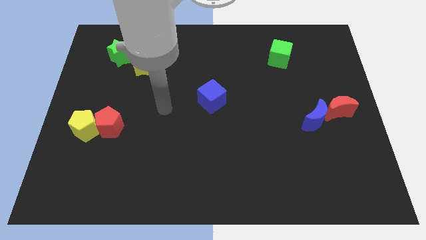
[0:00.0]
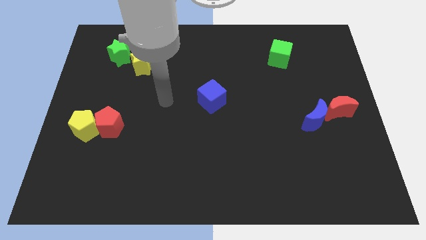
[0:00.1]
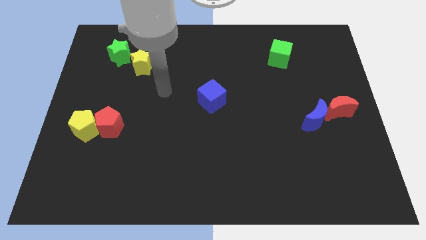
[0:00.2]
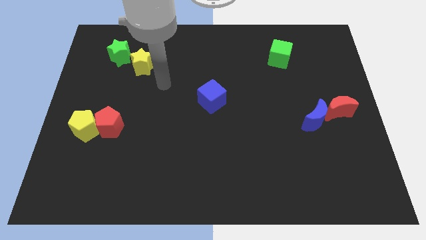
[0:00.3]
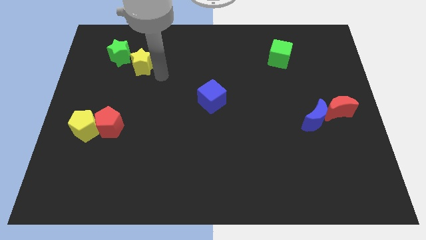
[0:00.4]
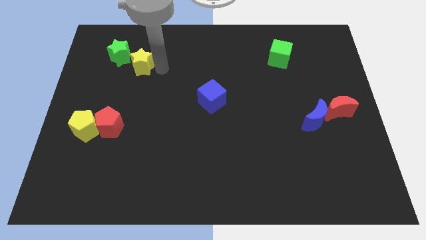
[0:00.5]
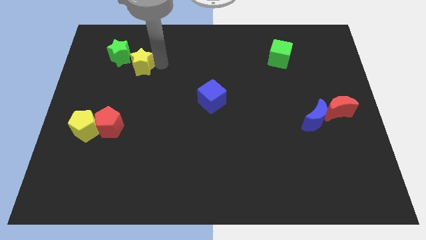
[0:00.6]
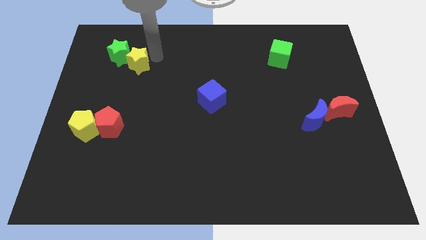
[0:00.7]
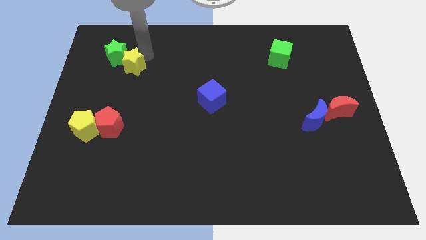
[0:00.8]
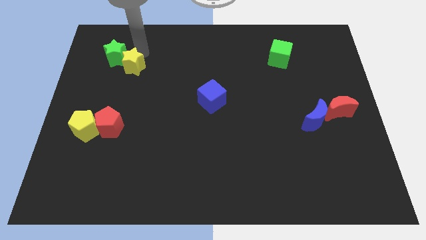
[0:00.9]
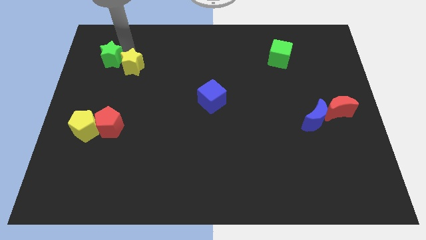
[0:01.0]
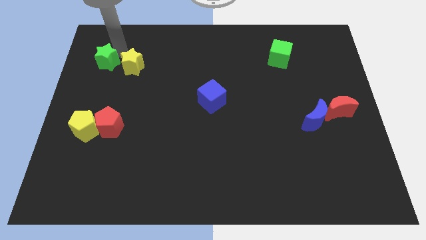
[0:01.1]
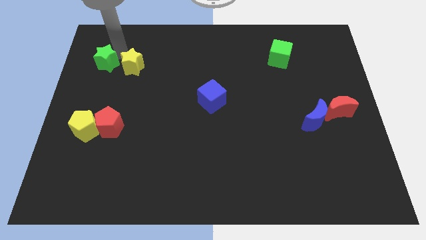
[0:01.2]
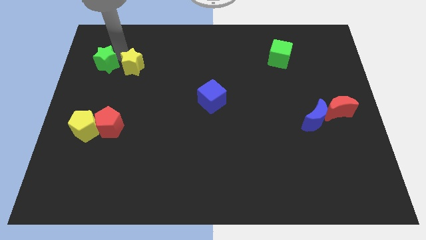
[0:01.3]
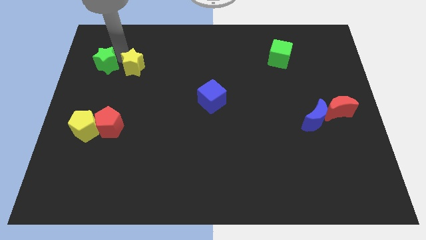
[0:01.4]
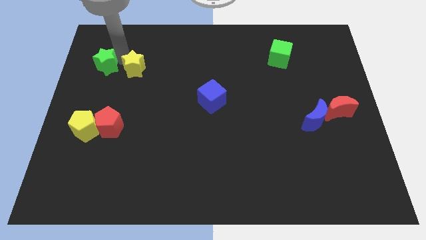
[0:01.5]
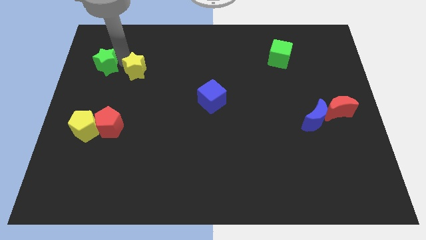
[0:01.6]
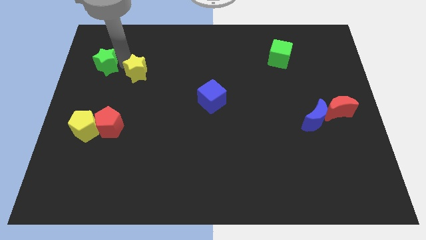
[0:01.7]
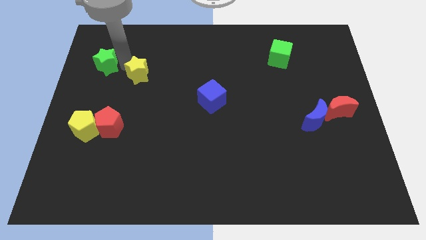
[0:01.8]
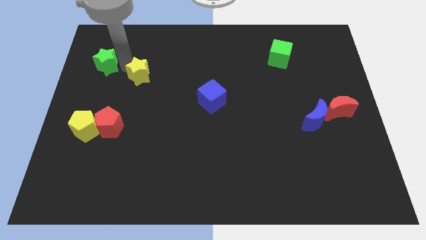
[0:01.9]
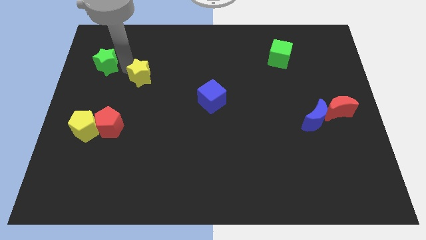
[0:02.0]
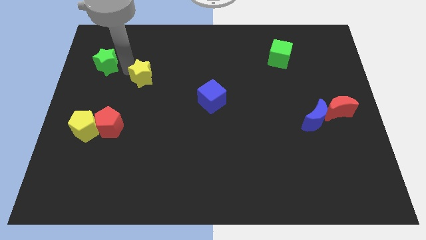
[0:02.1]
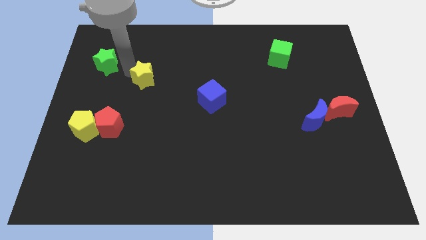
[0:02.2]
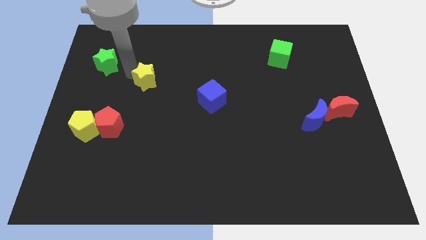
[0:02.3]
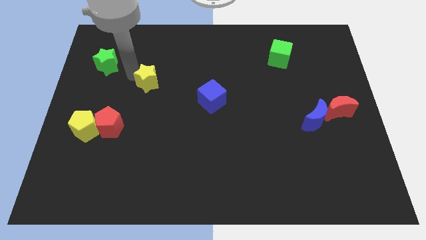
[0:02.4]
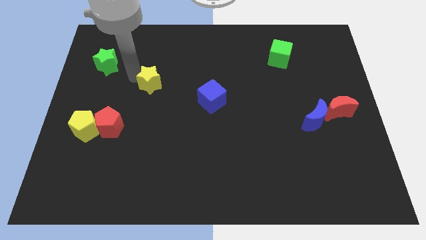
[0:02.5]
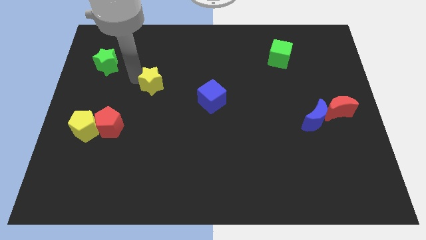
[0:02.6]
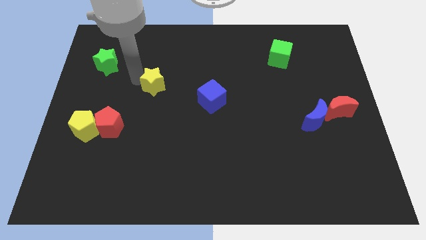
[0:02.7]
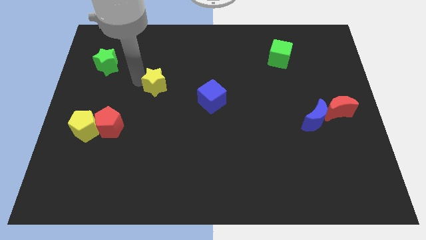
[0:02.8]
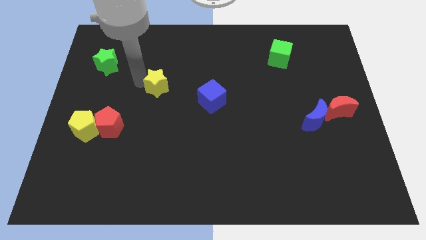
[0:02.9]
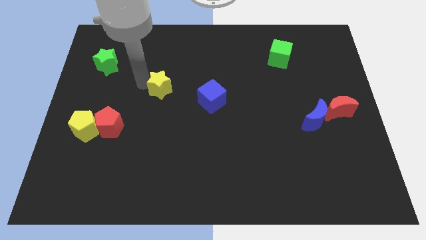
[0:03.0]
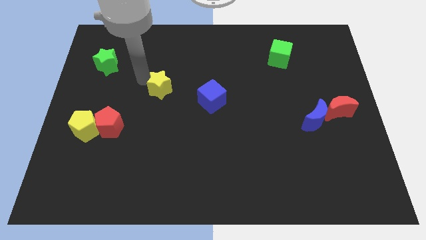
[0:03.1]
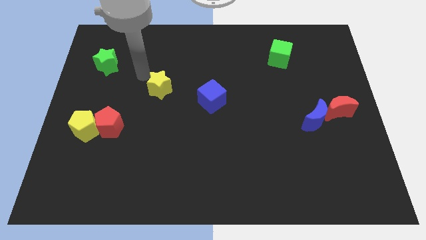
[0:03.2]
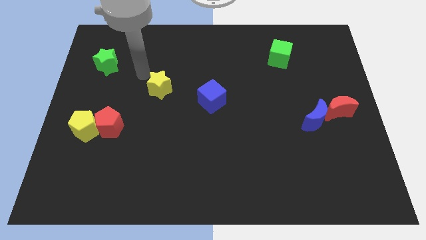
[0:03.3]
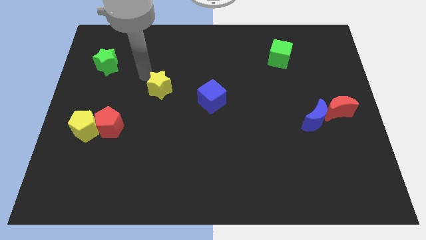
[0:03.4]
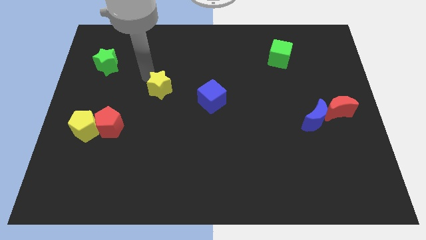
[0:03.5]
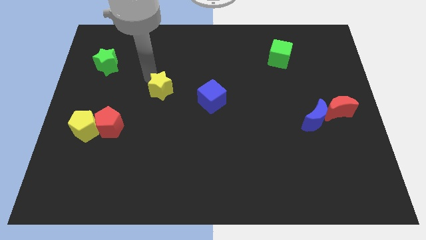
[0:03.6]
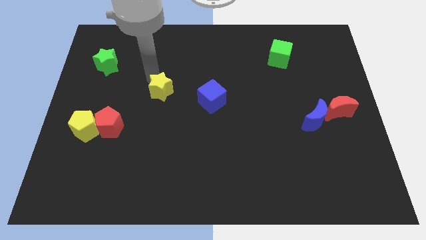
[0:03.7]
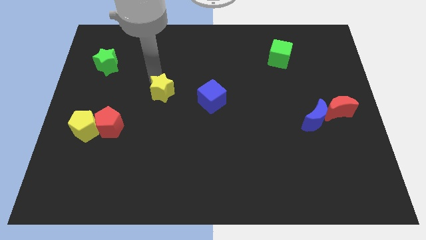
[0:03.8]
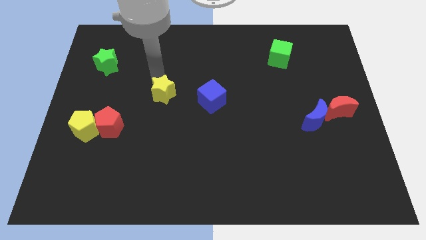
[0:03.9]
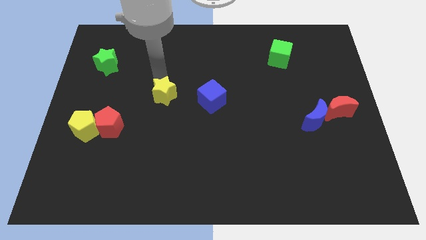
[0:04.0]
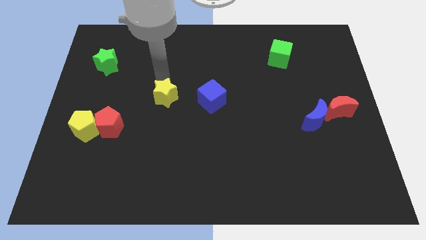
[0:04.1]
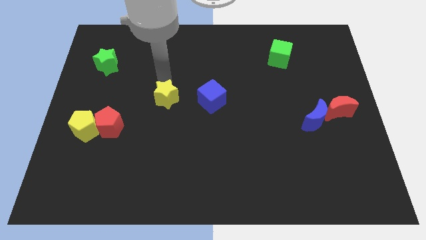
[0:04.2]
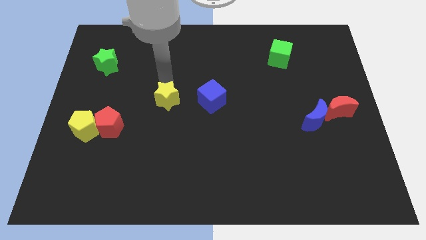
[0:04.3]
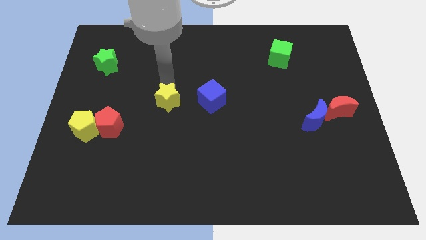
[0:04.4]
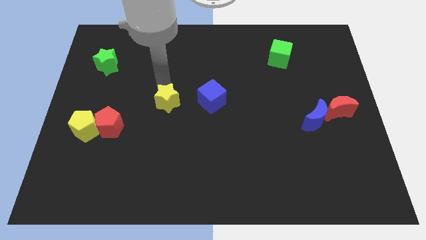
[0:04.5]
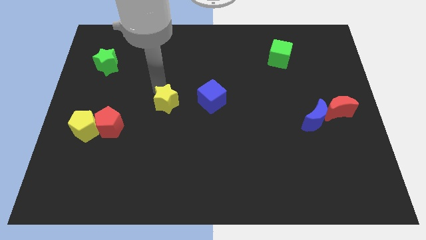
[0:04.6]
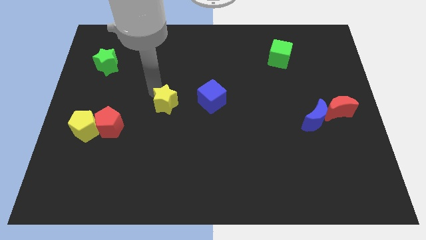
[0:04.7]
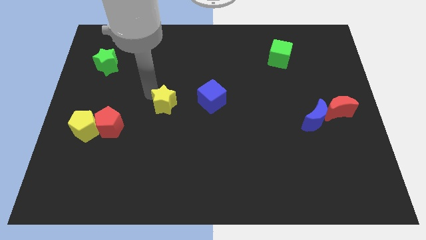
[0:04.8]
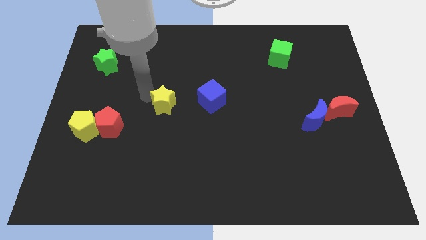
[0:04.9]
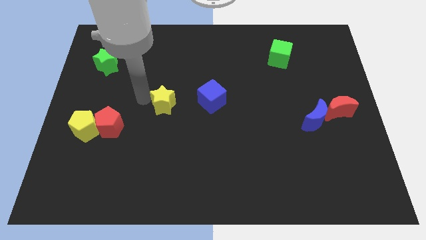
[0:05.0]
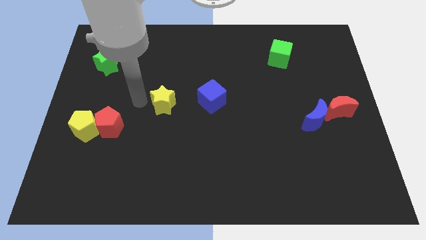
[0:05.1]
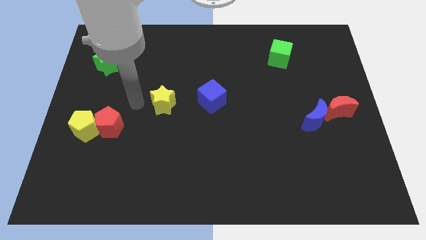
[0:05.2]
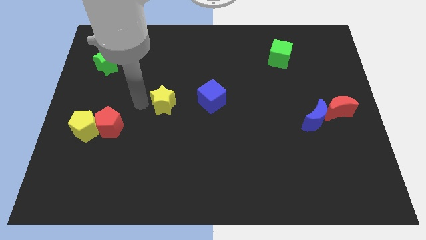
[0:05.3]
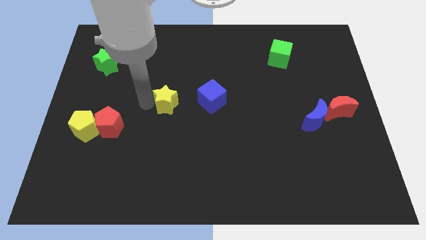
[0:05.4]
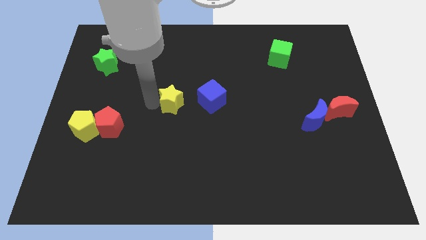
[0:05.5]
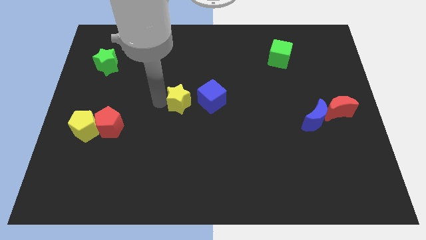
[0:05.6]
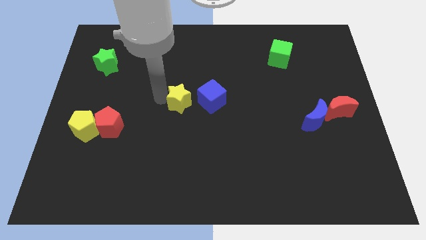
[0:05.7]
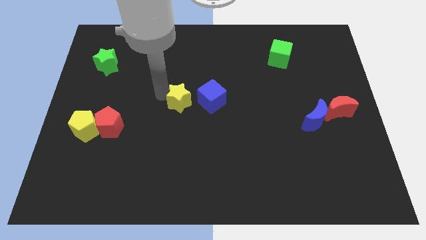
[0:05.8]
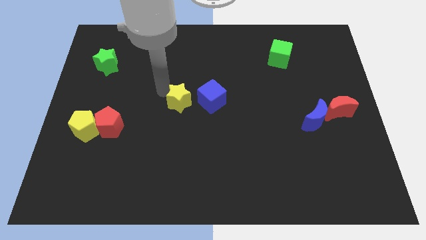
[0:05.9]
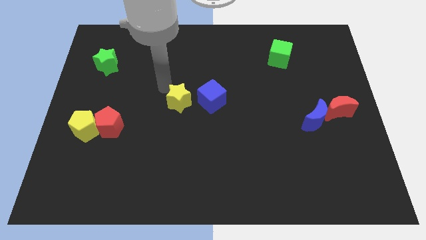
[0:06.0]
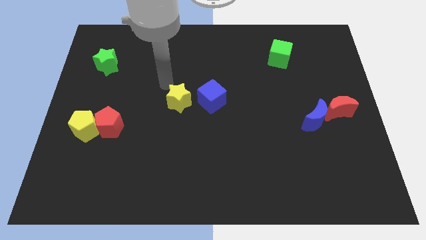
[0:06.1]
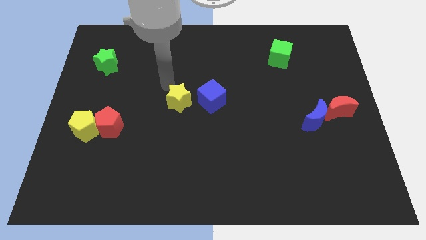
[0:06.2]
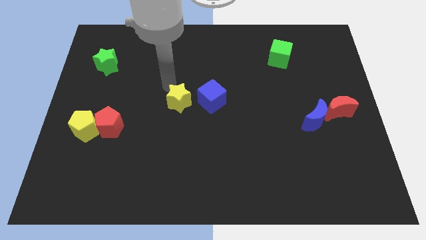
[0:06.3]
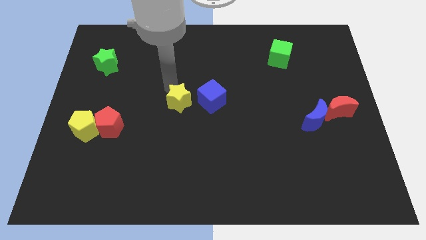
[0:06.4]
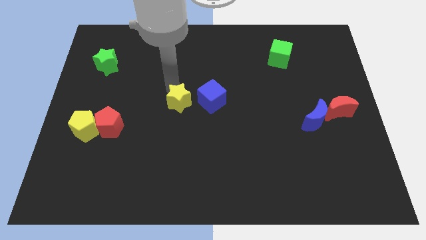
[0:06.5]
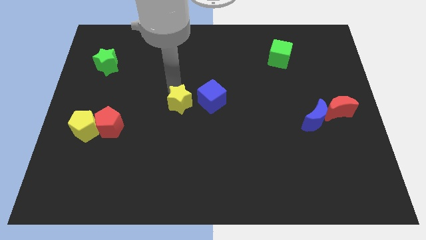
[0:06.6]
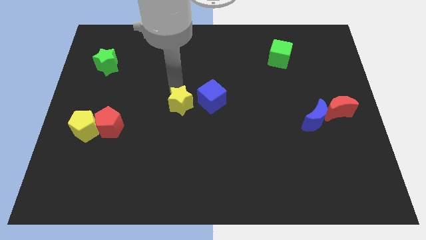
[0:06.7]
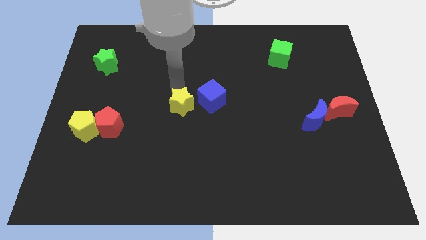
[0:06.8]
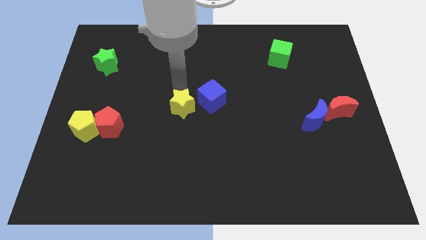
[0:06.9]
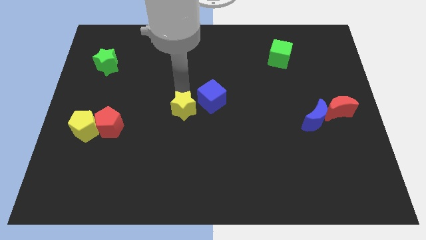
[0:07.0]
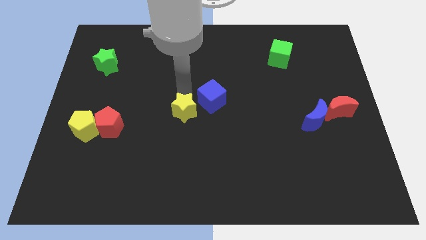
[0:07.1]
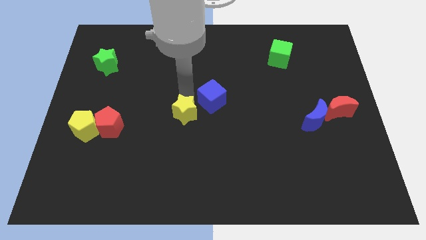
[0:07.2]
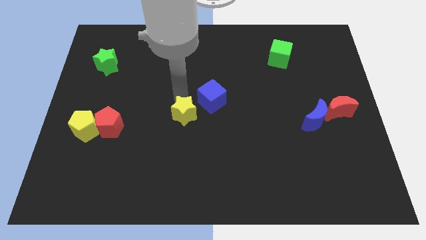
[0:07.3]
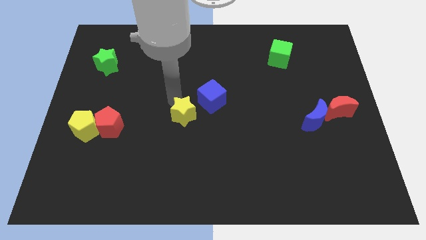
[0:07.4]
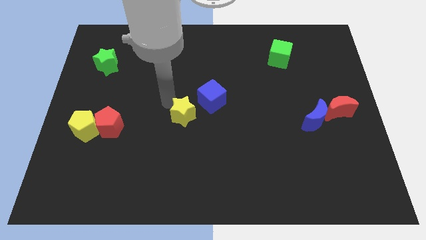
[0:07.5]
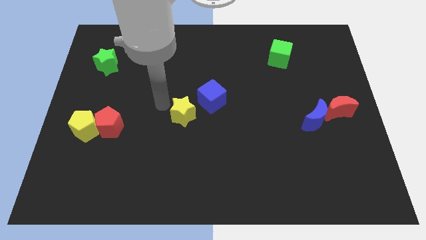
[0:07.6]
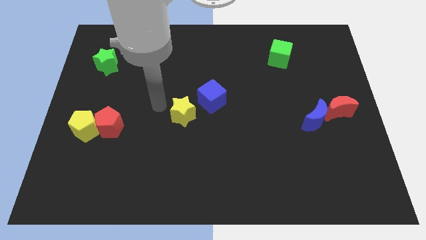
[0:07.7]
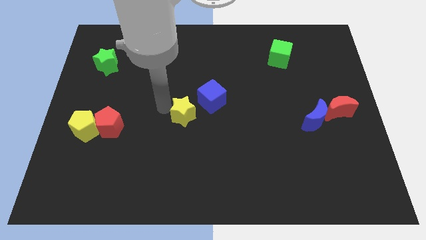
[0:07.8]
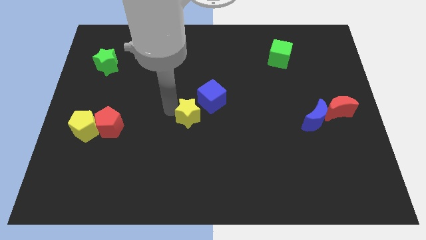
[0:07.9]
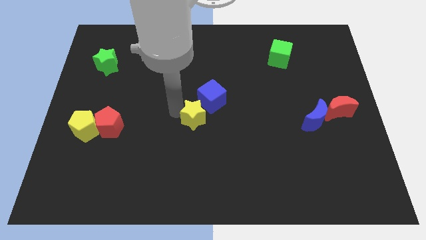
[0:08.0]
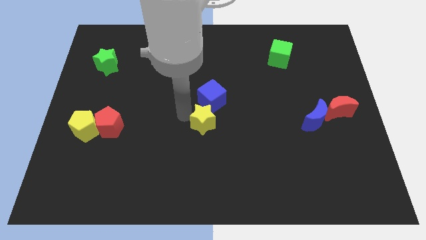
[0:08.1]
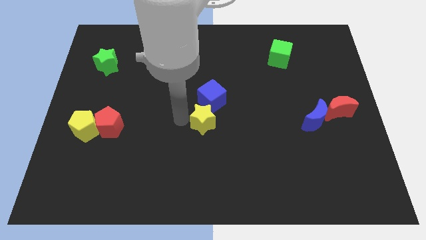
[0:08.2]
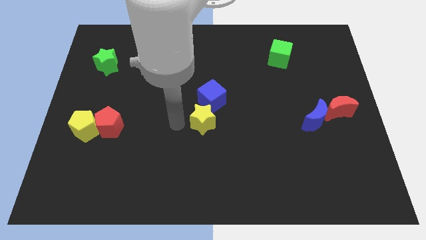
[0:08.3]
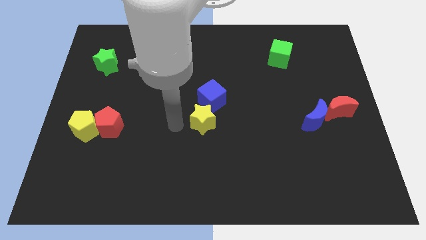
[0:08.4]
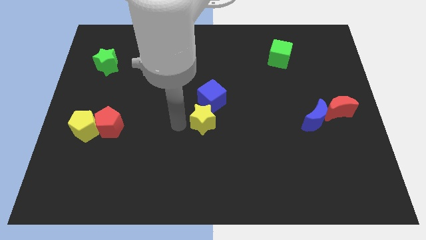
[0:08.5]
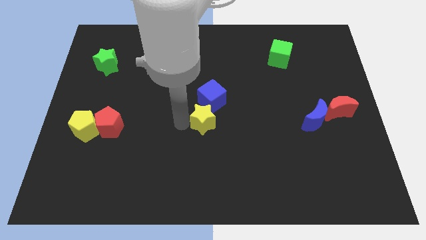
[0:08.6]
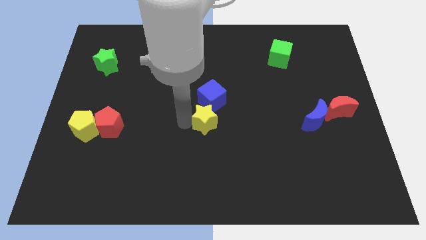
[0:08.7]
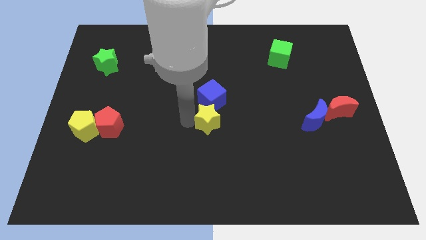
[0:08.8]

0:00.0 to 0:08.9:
slide the yellow star diagonally down and to the right of the blue cube
